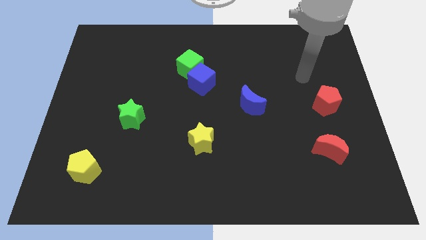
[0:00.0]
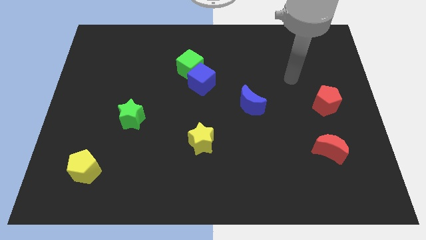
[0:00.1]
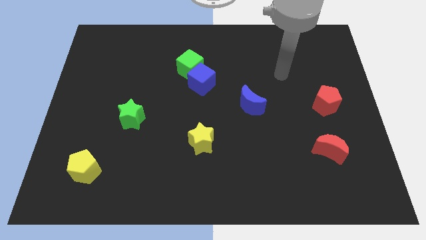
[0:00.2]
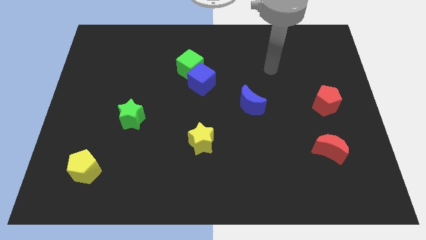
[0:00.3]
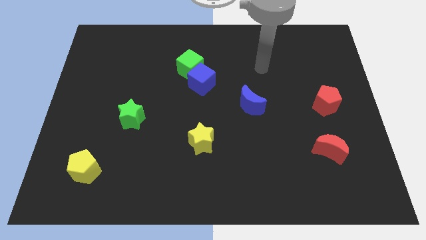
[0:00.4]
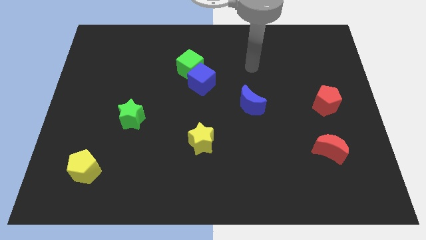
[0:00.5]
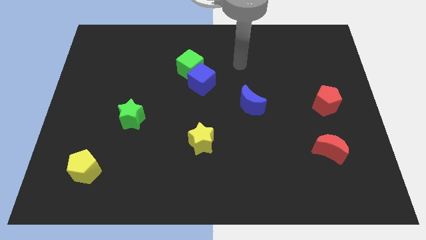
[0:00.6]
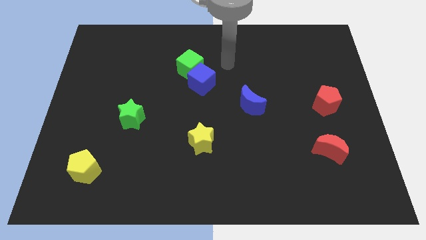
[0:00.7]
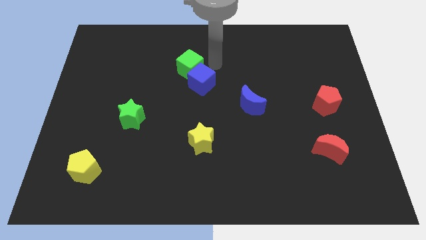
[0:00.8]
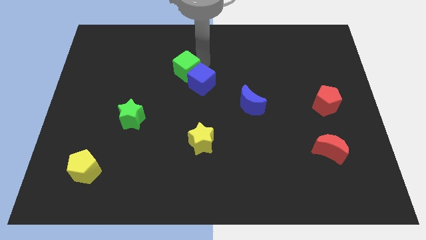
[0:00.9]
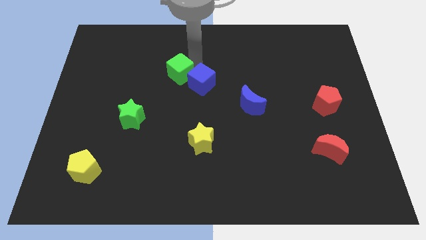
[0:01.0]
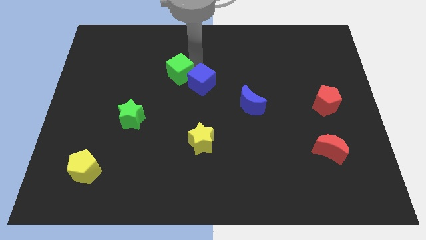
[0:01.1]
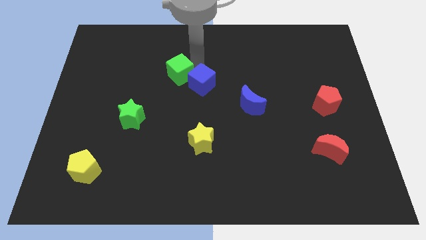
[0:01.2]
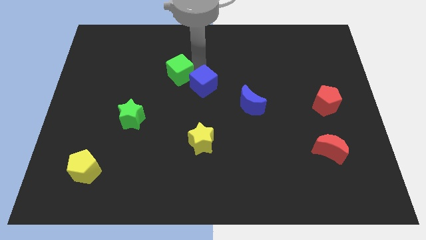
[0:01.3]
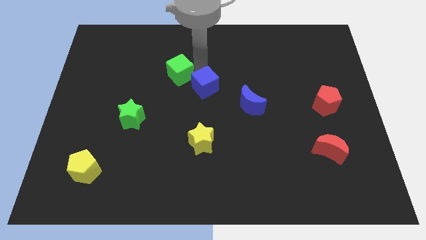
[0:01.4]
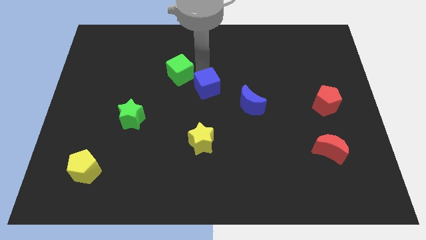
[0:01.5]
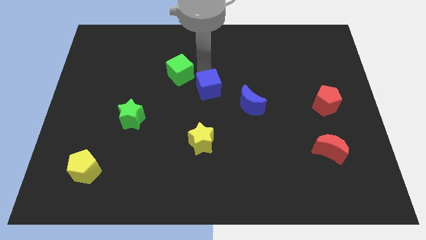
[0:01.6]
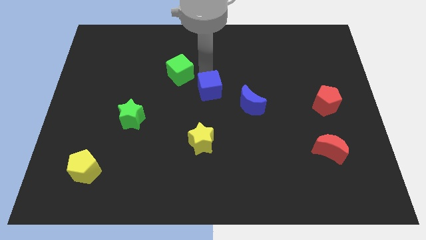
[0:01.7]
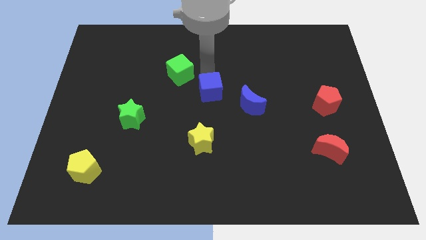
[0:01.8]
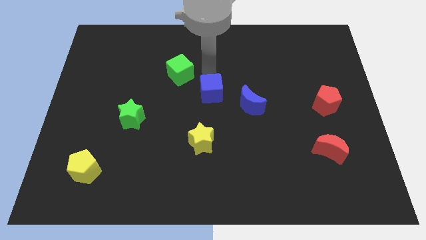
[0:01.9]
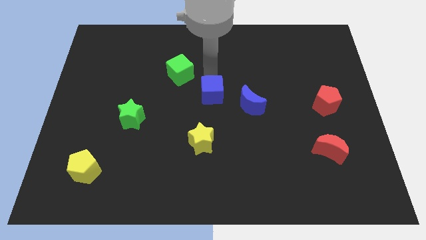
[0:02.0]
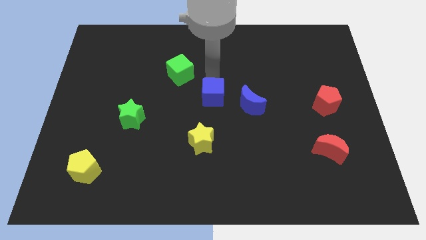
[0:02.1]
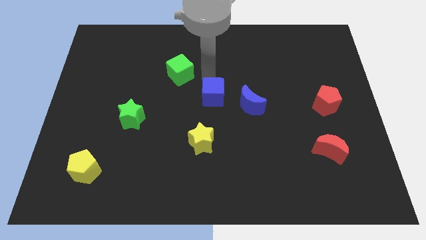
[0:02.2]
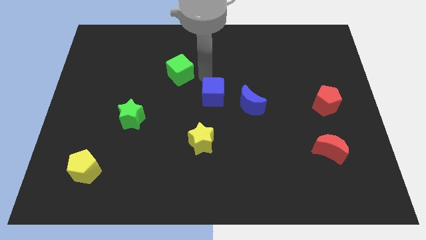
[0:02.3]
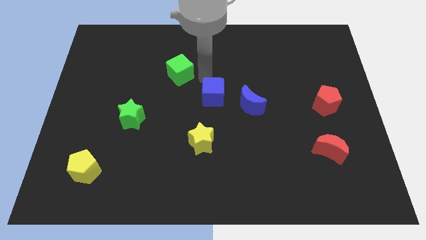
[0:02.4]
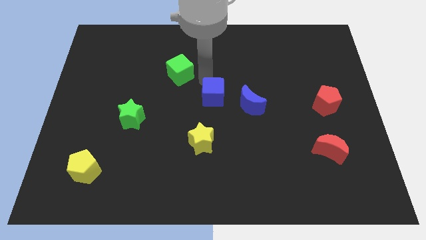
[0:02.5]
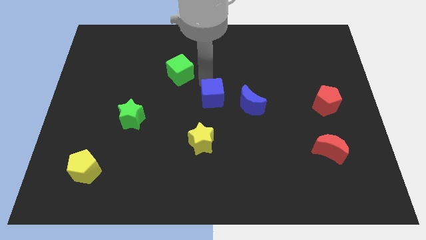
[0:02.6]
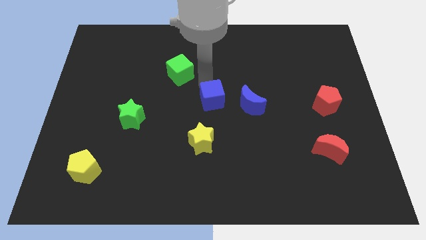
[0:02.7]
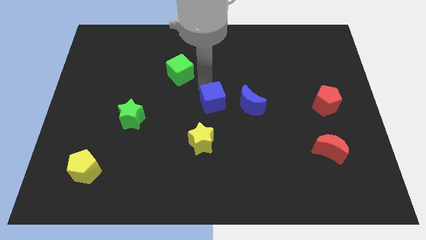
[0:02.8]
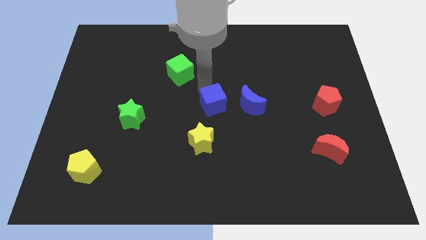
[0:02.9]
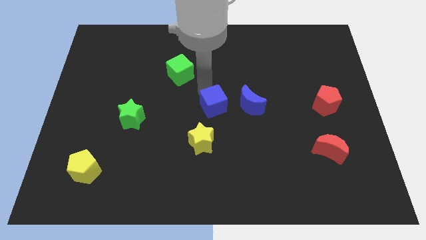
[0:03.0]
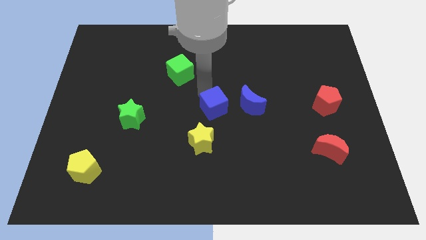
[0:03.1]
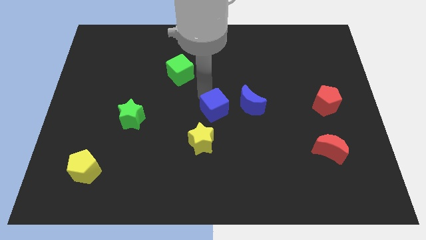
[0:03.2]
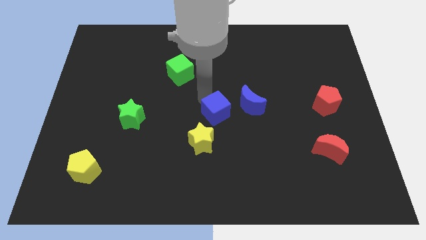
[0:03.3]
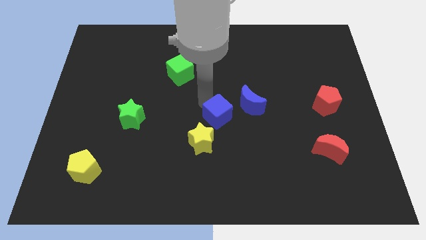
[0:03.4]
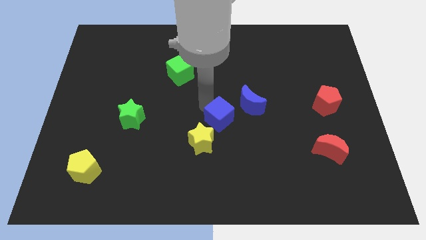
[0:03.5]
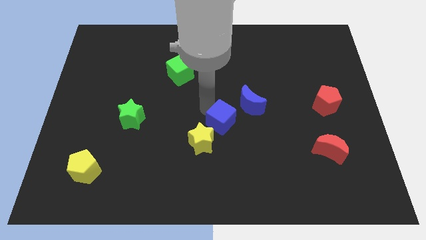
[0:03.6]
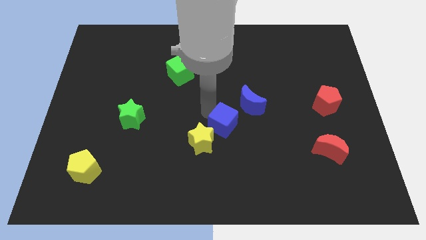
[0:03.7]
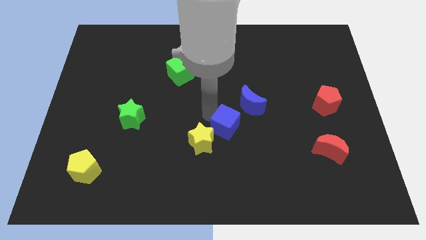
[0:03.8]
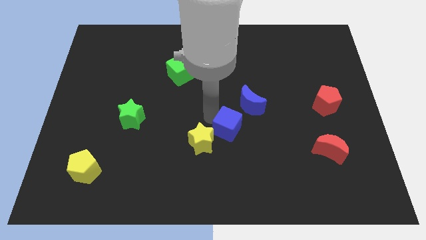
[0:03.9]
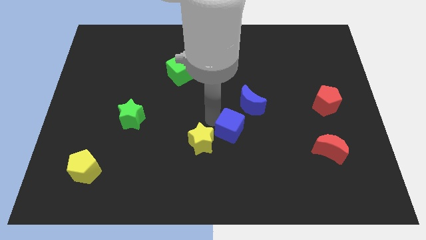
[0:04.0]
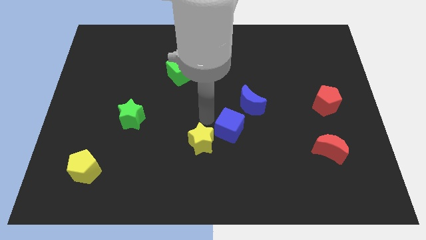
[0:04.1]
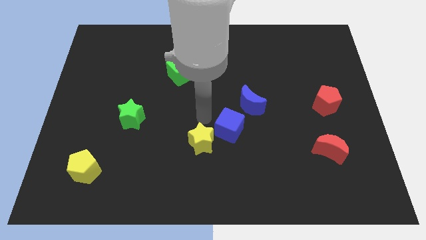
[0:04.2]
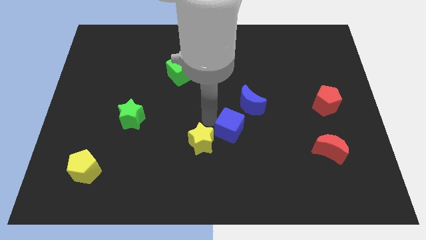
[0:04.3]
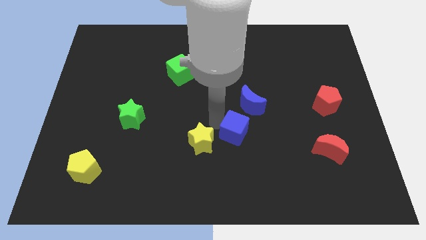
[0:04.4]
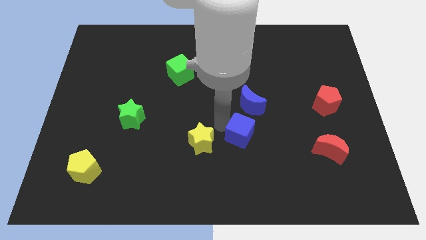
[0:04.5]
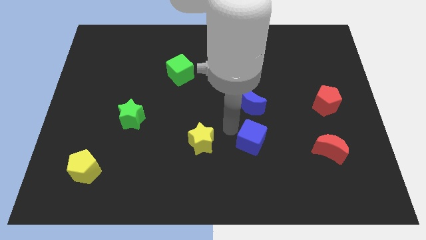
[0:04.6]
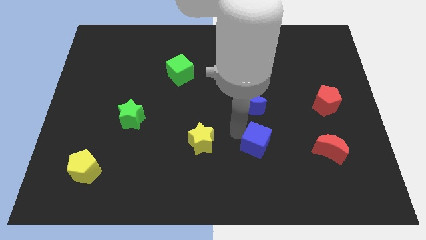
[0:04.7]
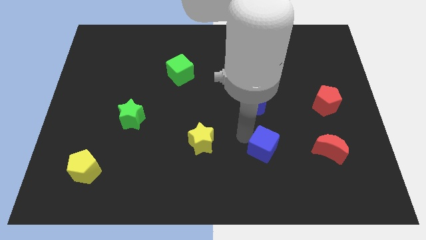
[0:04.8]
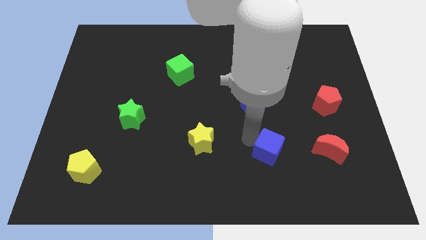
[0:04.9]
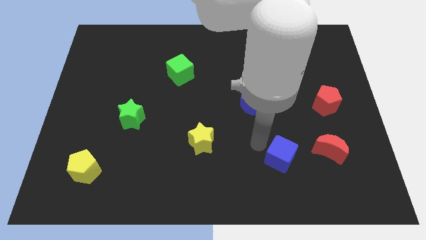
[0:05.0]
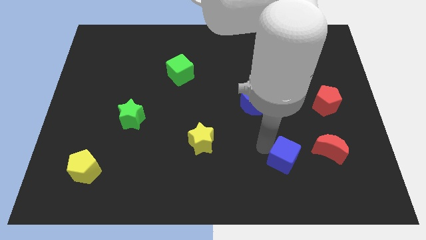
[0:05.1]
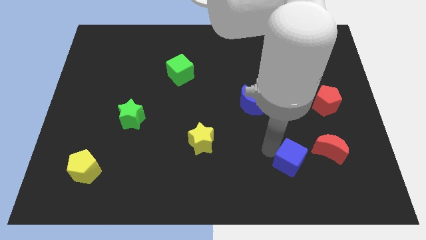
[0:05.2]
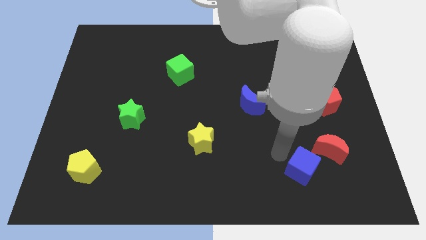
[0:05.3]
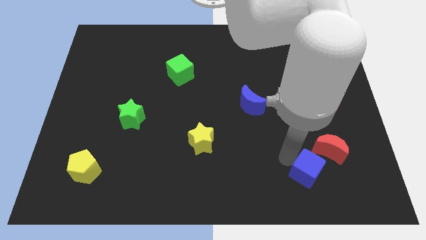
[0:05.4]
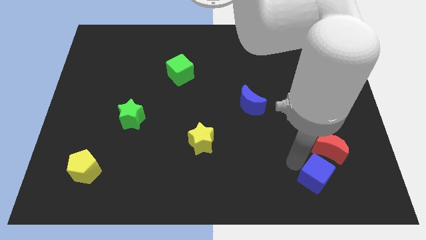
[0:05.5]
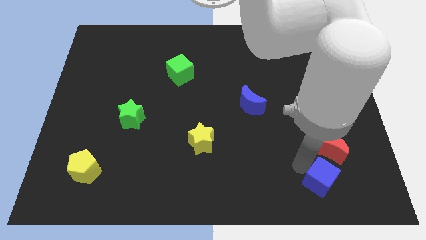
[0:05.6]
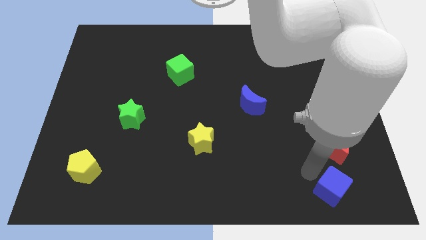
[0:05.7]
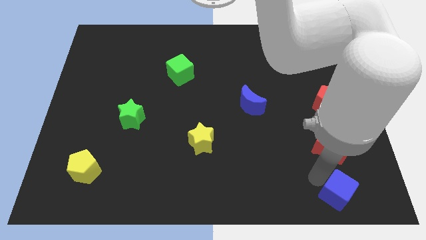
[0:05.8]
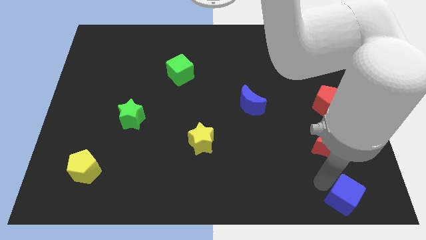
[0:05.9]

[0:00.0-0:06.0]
push the blue cube to the bottom right

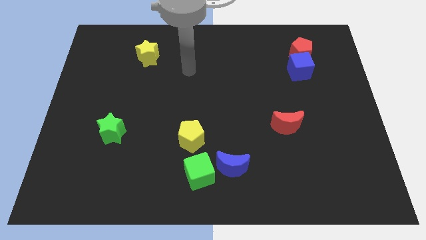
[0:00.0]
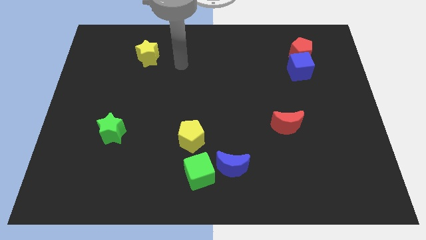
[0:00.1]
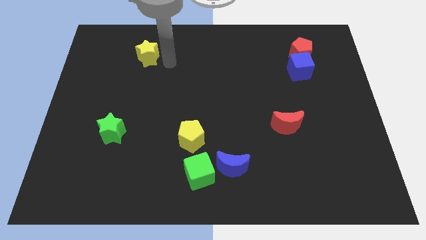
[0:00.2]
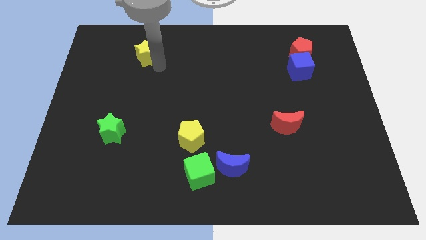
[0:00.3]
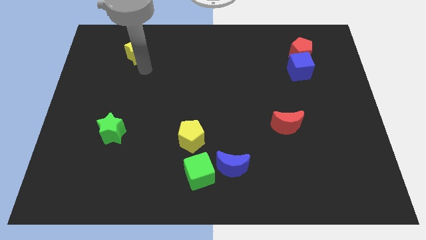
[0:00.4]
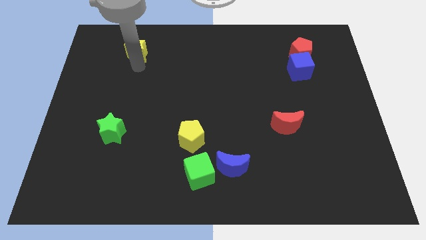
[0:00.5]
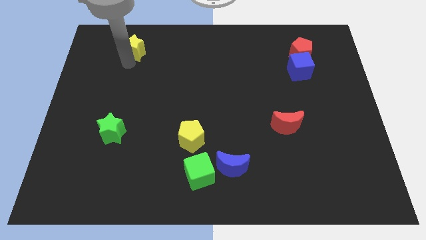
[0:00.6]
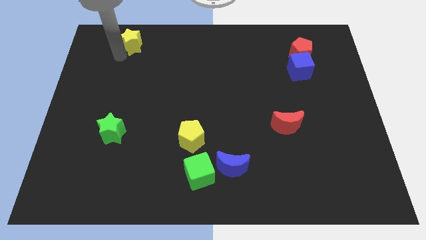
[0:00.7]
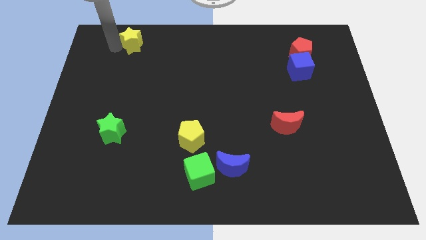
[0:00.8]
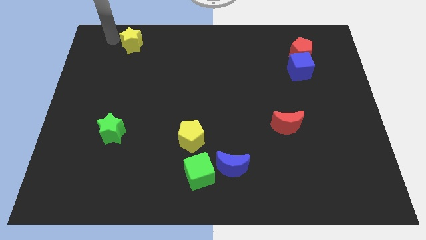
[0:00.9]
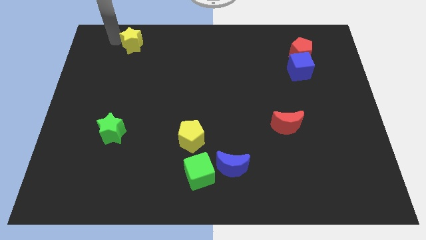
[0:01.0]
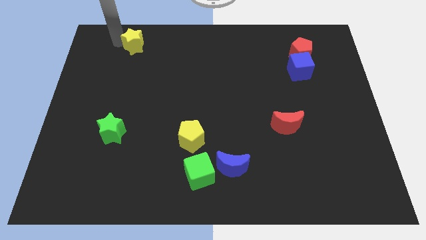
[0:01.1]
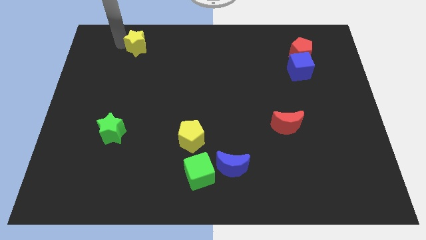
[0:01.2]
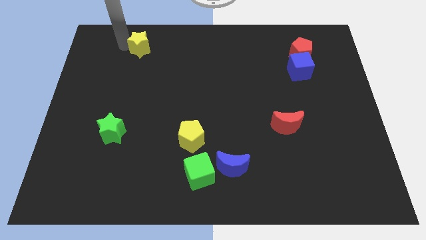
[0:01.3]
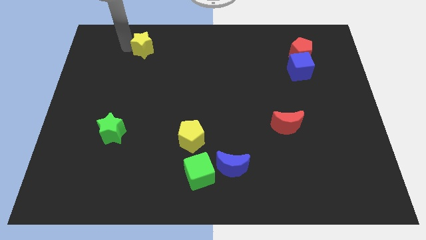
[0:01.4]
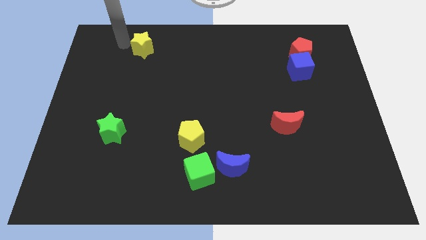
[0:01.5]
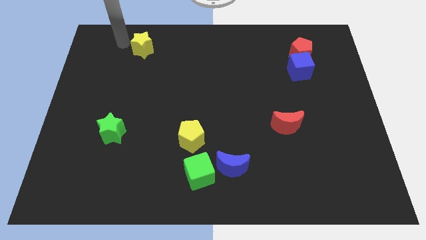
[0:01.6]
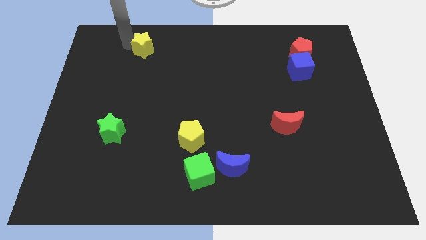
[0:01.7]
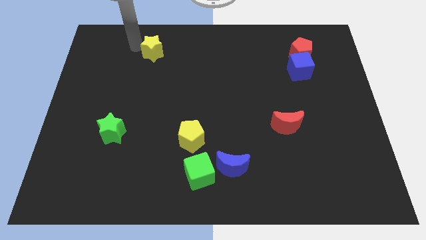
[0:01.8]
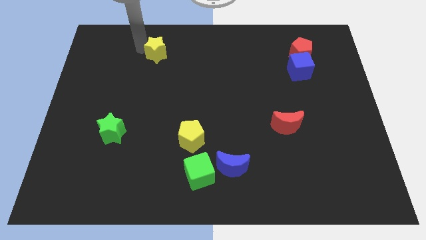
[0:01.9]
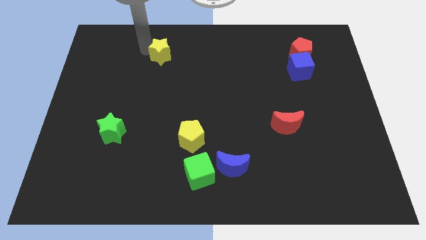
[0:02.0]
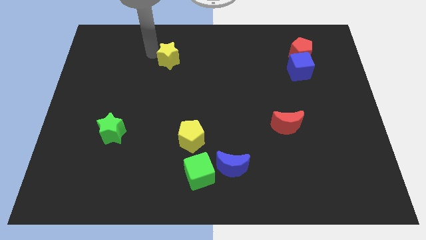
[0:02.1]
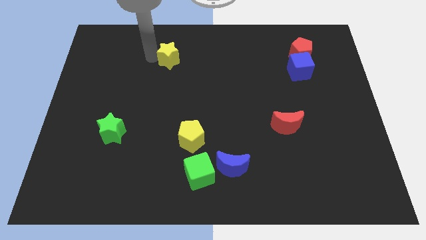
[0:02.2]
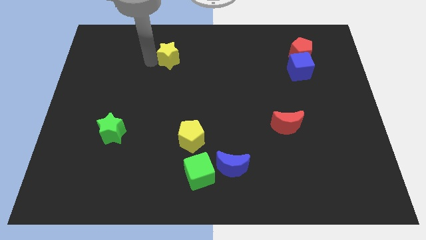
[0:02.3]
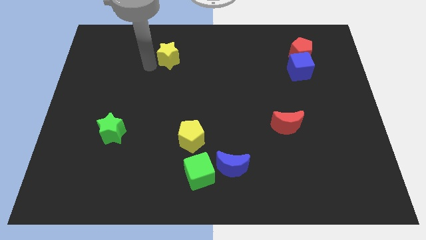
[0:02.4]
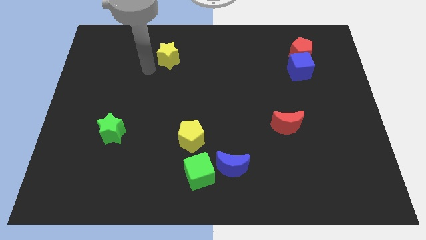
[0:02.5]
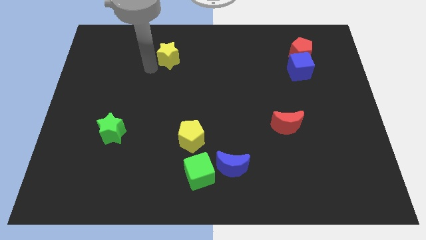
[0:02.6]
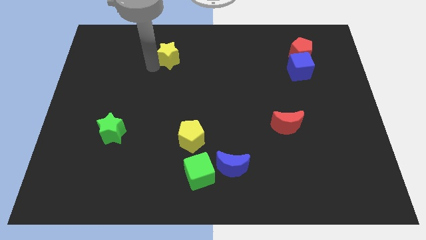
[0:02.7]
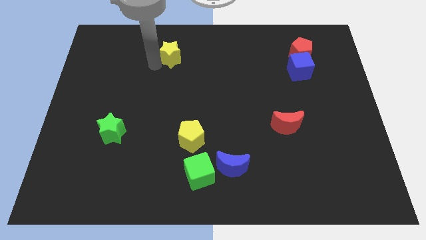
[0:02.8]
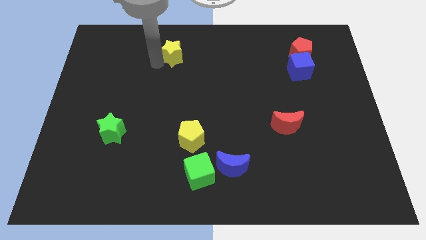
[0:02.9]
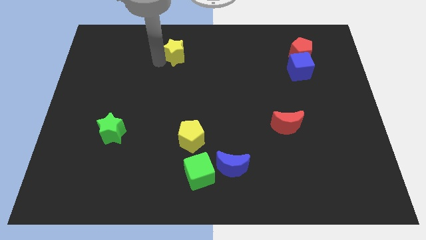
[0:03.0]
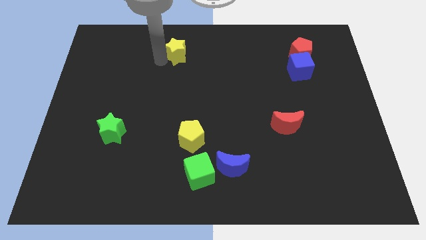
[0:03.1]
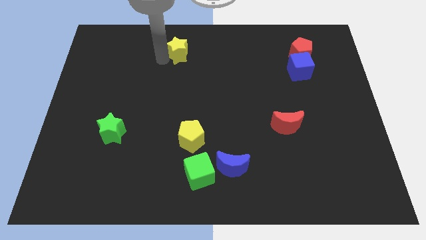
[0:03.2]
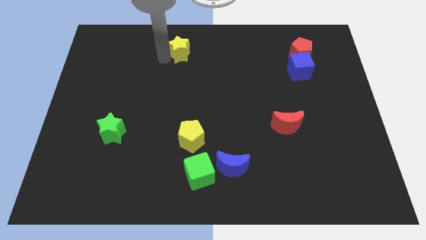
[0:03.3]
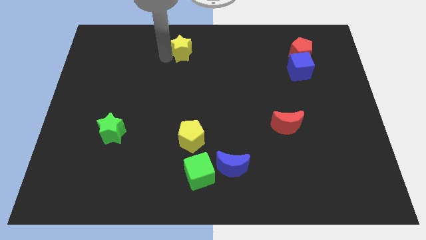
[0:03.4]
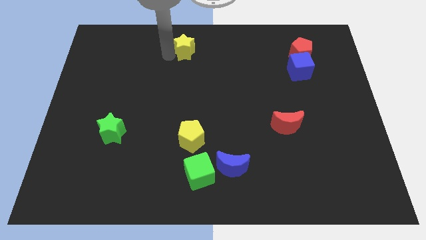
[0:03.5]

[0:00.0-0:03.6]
slide the yellow star to the top side
